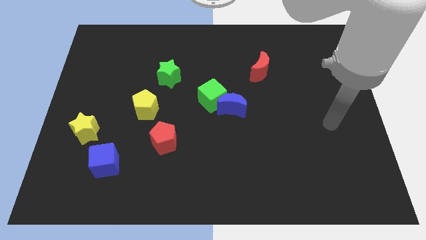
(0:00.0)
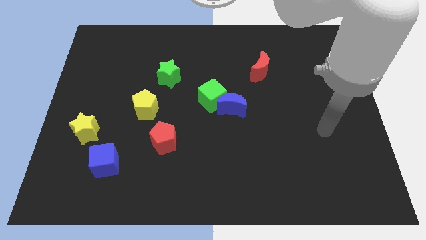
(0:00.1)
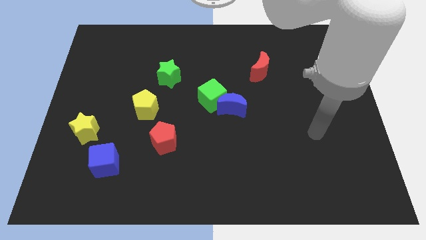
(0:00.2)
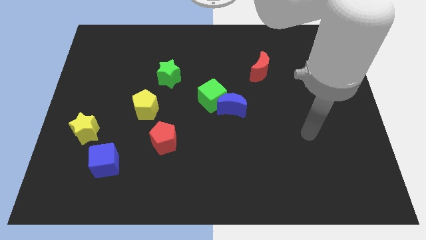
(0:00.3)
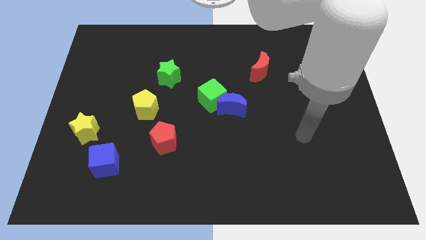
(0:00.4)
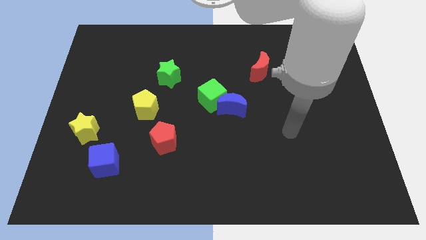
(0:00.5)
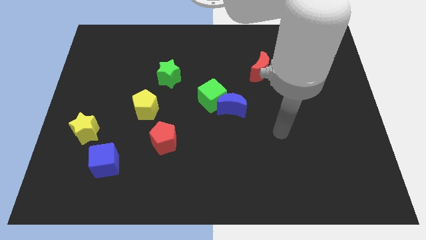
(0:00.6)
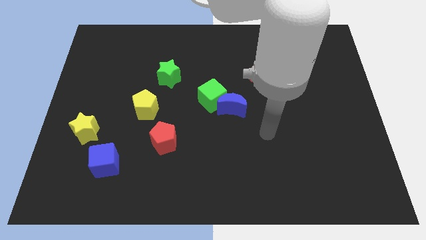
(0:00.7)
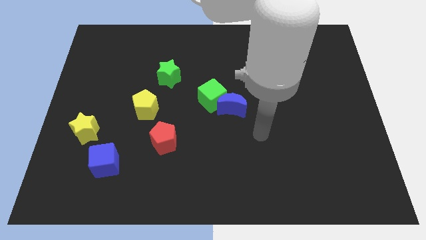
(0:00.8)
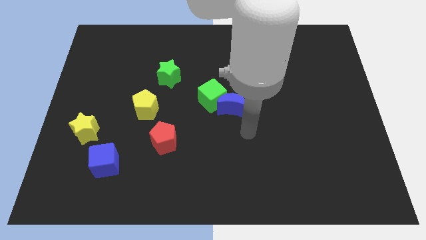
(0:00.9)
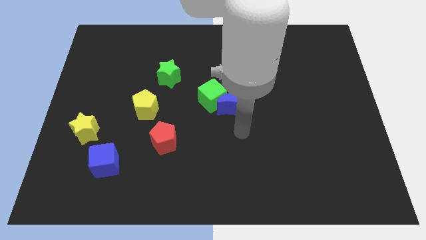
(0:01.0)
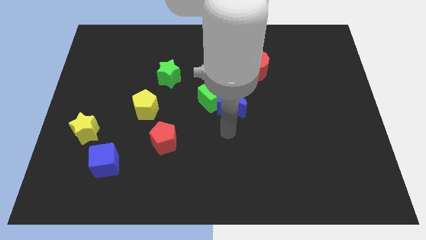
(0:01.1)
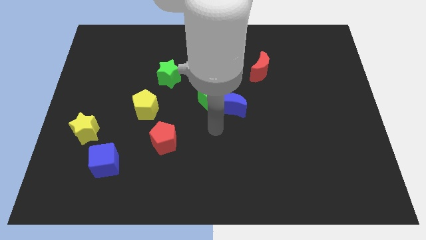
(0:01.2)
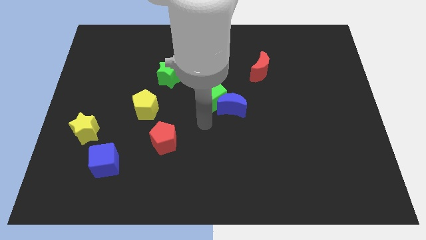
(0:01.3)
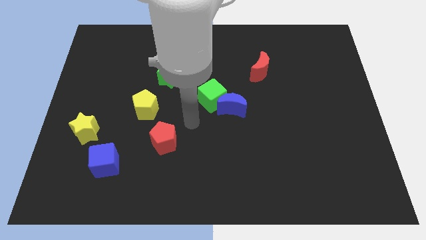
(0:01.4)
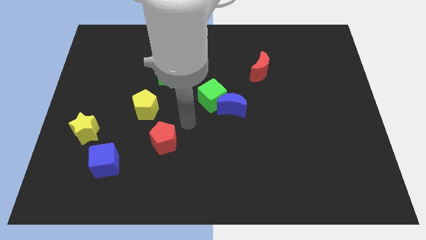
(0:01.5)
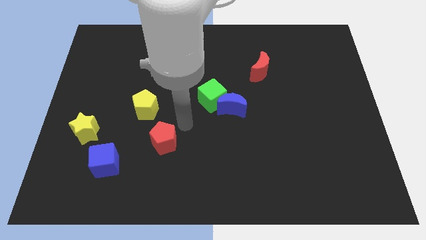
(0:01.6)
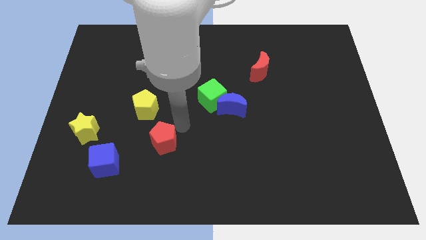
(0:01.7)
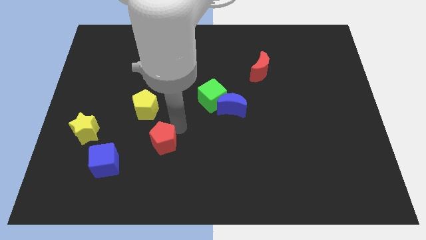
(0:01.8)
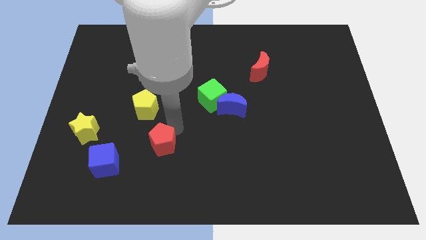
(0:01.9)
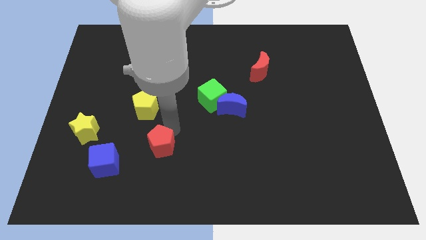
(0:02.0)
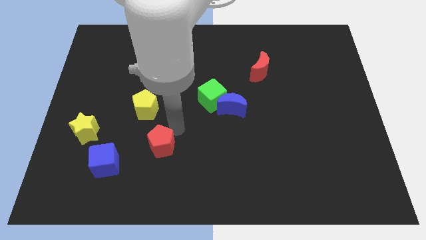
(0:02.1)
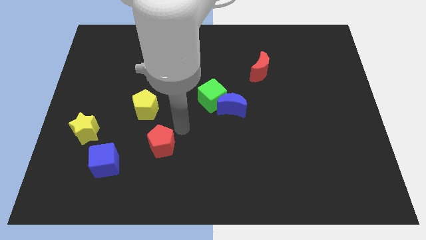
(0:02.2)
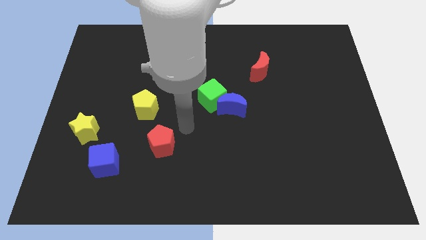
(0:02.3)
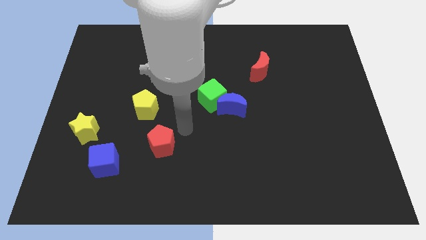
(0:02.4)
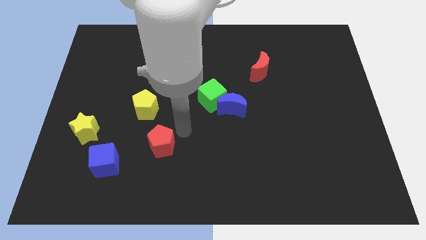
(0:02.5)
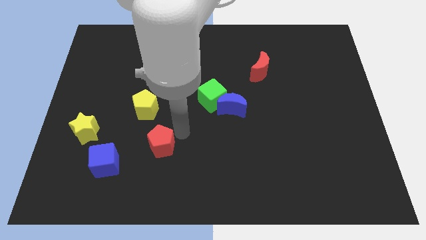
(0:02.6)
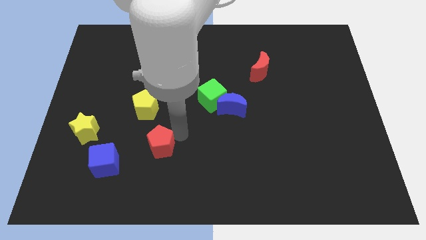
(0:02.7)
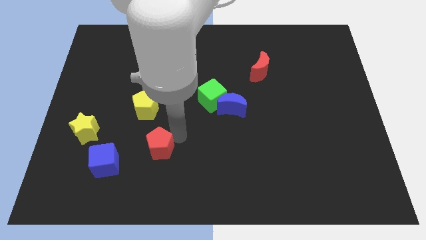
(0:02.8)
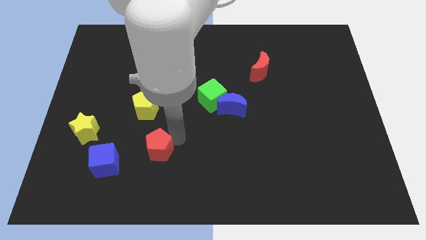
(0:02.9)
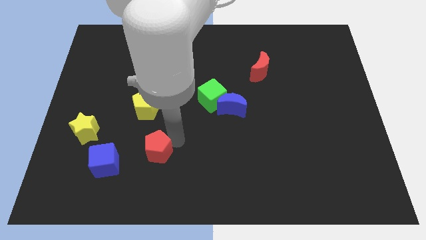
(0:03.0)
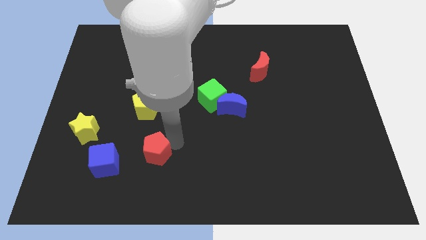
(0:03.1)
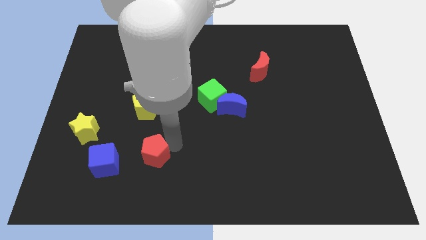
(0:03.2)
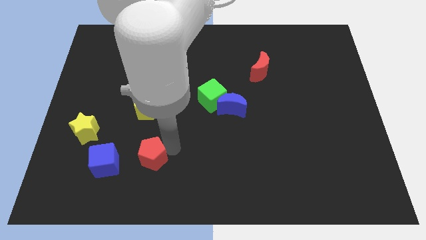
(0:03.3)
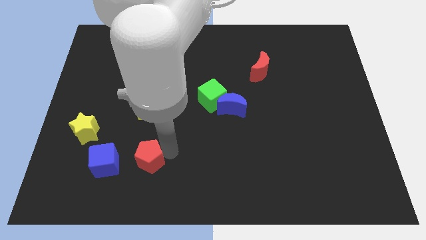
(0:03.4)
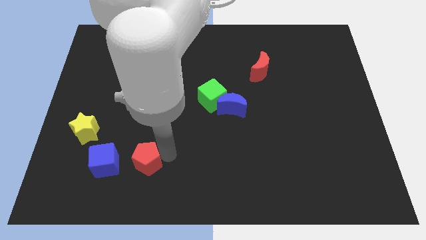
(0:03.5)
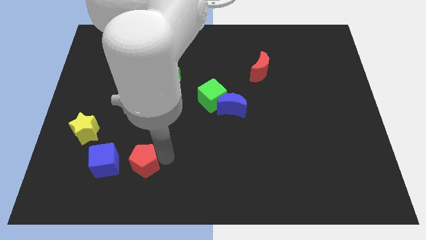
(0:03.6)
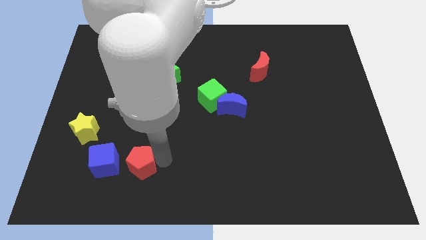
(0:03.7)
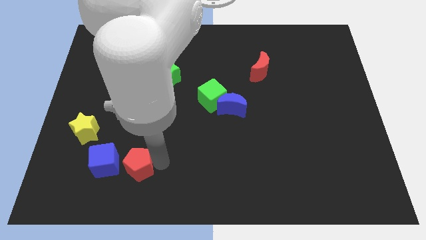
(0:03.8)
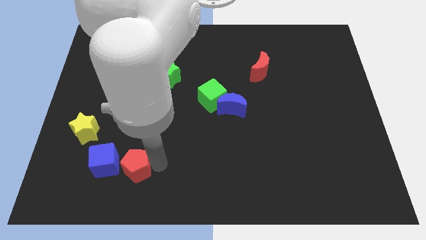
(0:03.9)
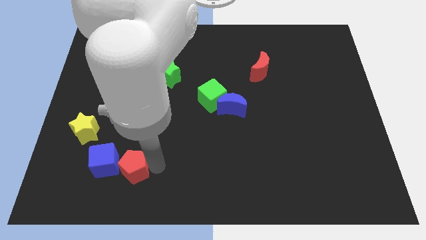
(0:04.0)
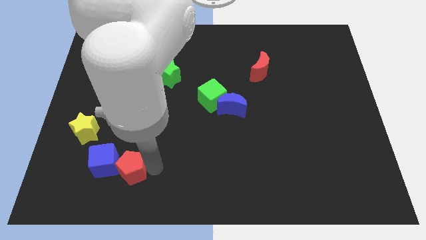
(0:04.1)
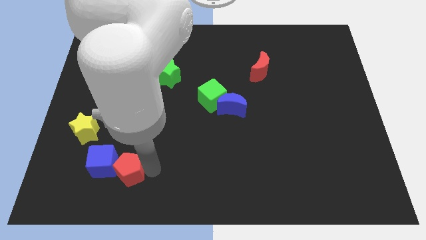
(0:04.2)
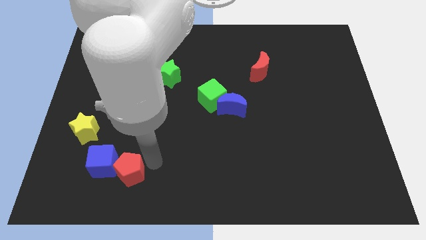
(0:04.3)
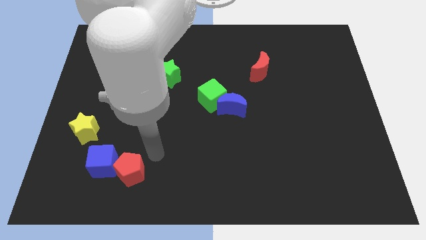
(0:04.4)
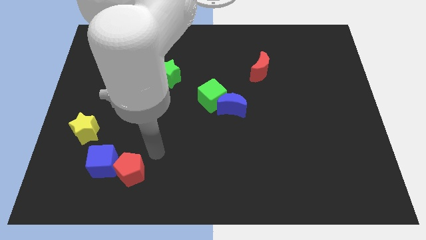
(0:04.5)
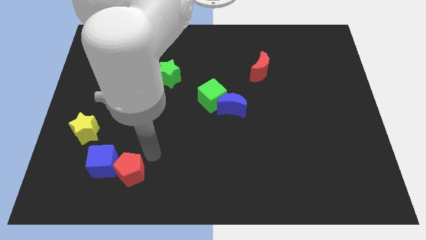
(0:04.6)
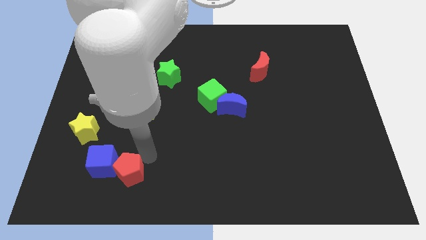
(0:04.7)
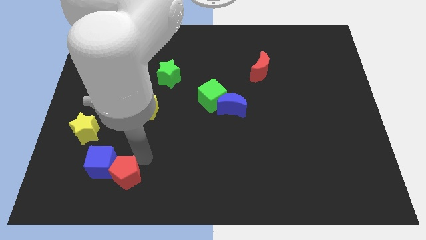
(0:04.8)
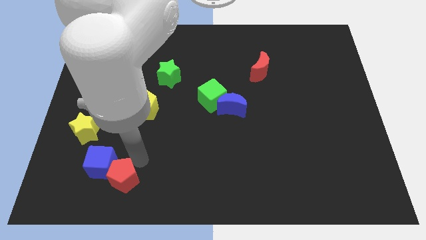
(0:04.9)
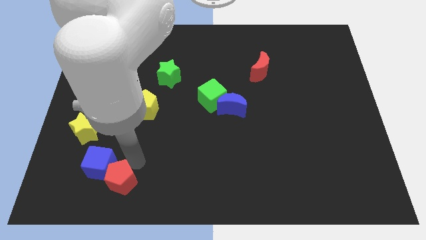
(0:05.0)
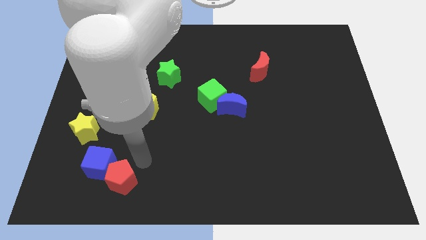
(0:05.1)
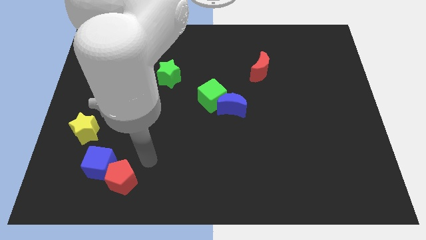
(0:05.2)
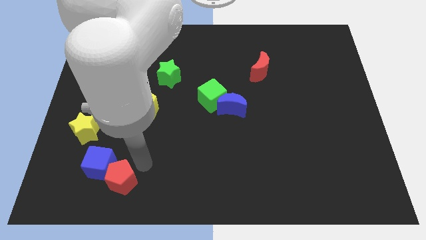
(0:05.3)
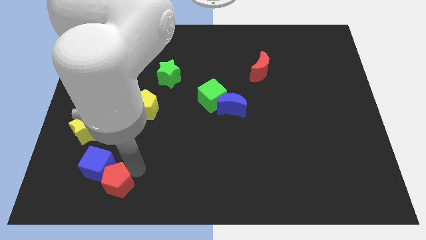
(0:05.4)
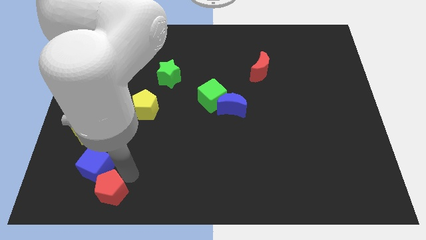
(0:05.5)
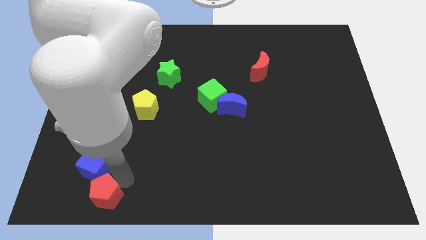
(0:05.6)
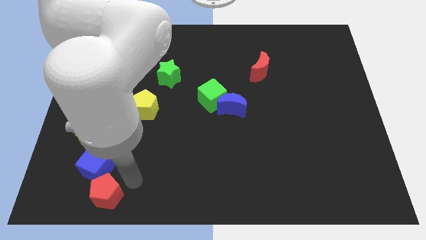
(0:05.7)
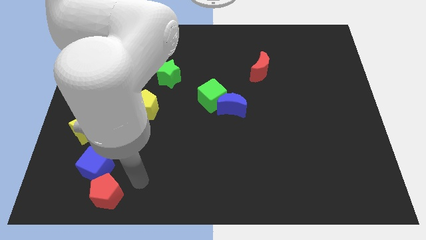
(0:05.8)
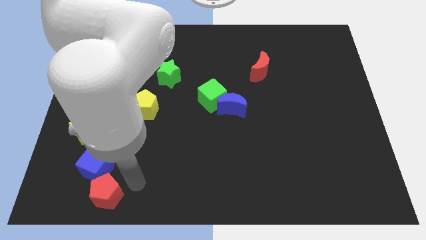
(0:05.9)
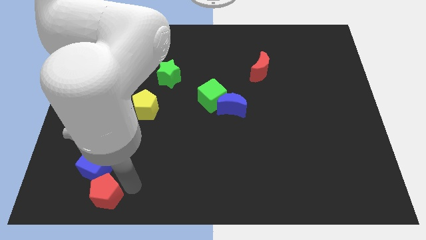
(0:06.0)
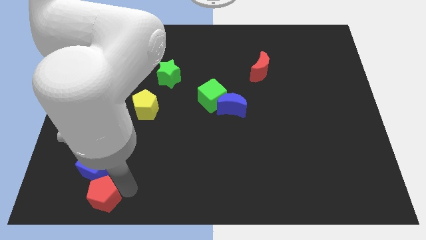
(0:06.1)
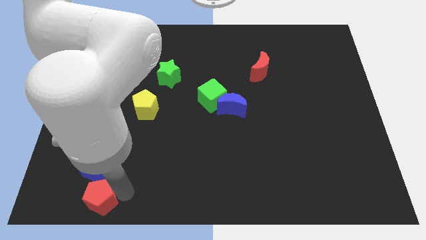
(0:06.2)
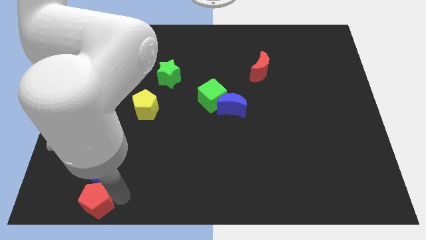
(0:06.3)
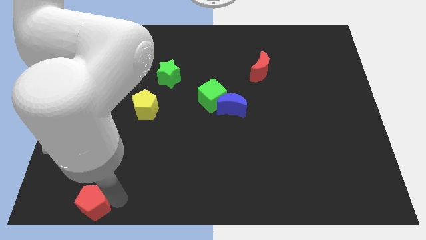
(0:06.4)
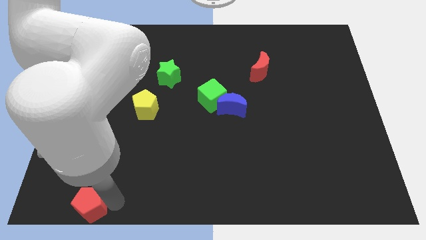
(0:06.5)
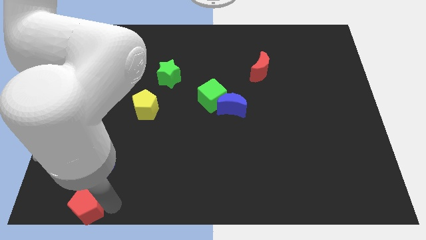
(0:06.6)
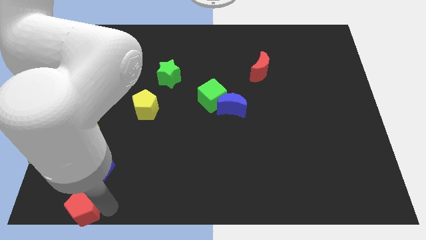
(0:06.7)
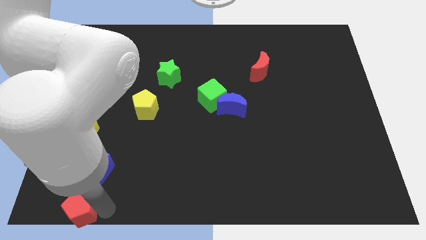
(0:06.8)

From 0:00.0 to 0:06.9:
move the red pentagon to the bottom left of the board
